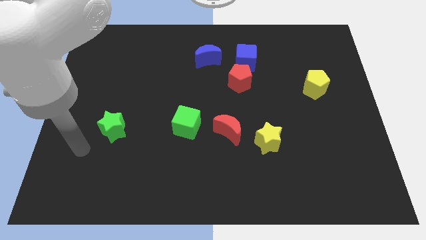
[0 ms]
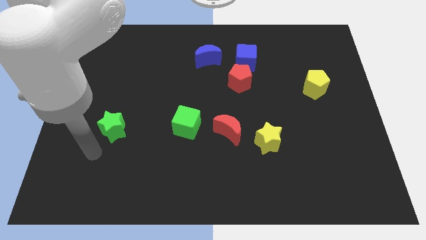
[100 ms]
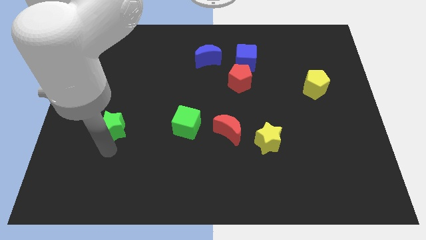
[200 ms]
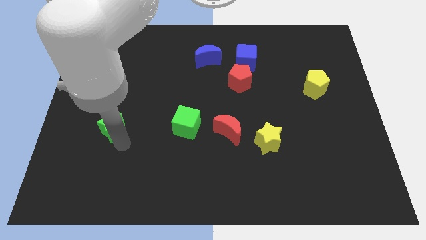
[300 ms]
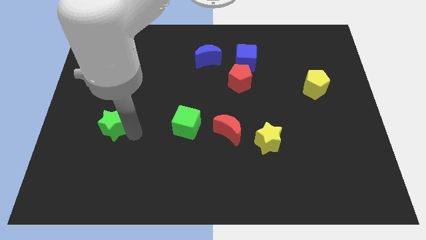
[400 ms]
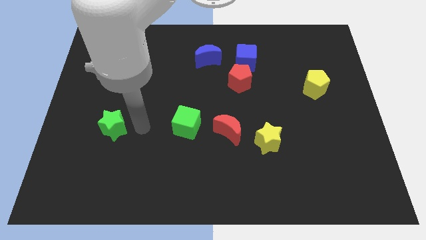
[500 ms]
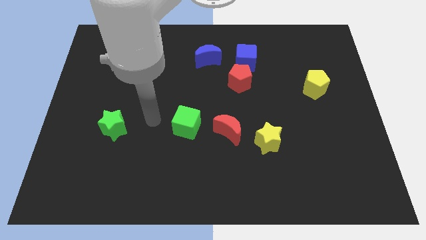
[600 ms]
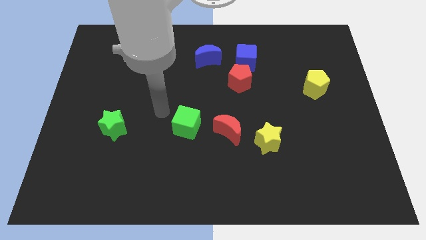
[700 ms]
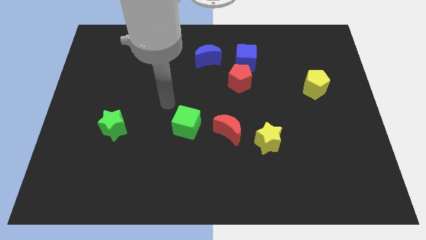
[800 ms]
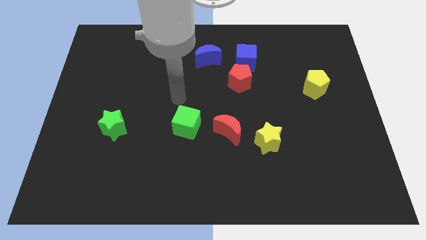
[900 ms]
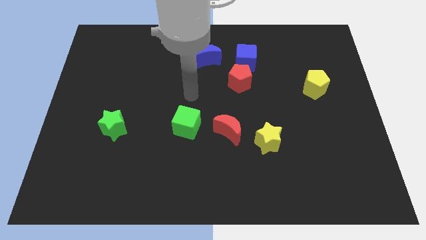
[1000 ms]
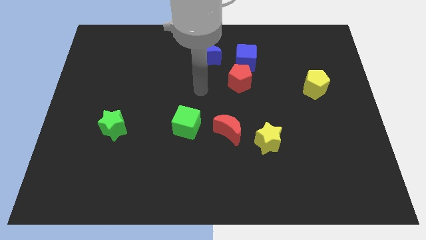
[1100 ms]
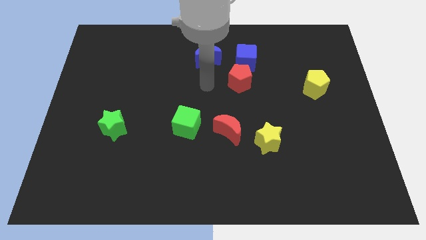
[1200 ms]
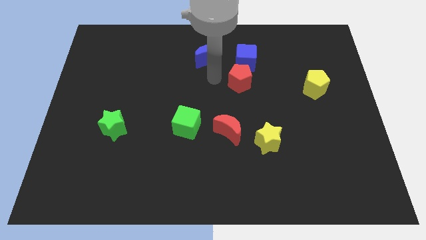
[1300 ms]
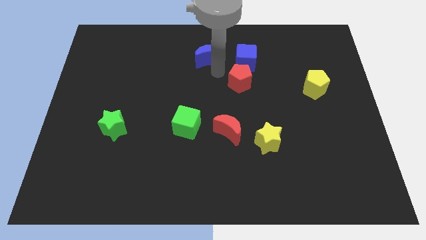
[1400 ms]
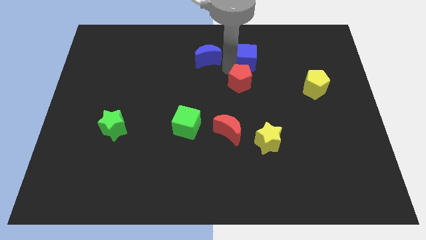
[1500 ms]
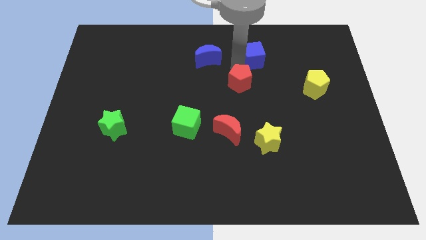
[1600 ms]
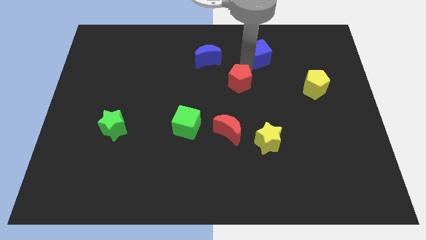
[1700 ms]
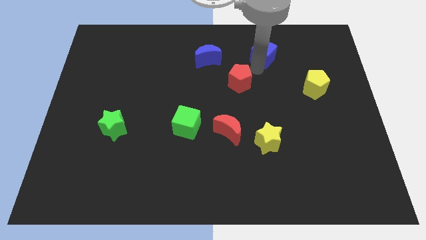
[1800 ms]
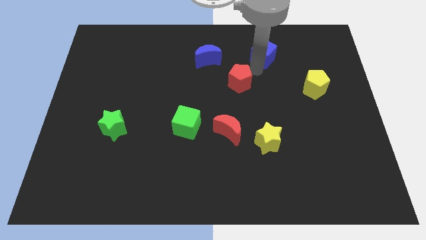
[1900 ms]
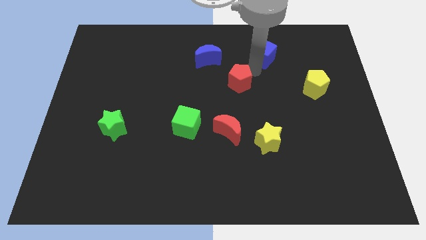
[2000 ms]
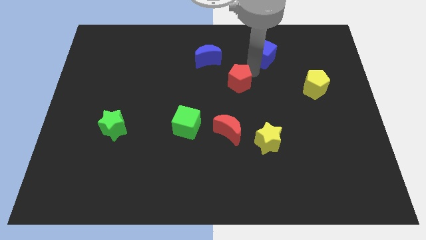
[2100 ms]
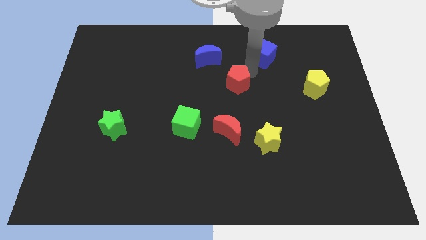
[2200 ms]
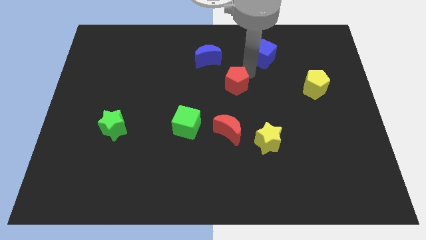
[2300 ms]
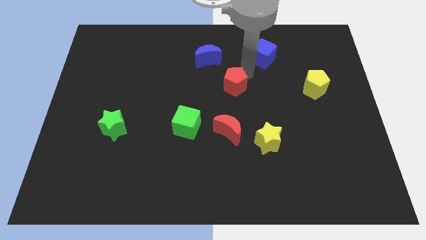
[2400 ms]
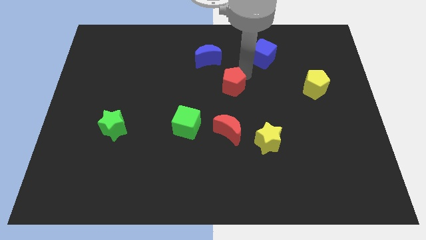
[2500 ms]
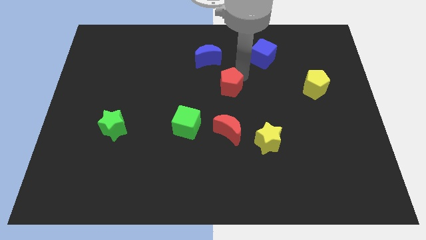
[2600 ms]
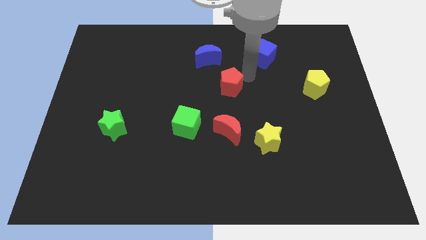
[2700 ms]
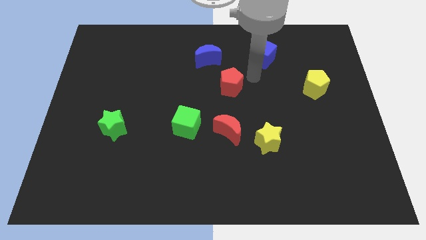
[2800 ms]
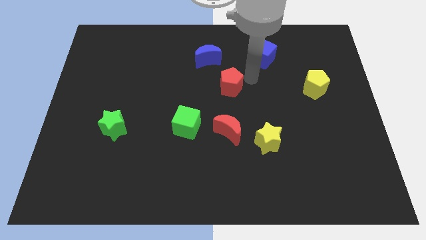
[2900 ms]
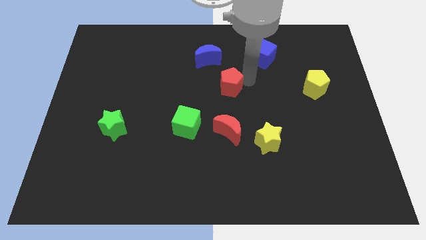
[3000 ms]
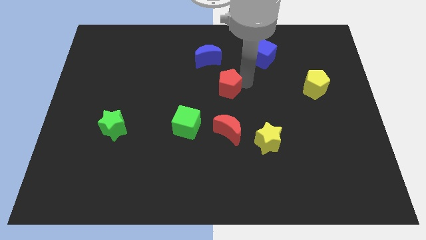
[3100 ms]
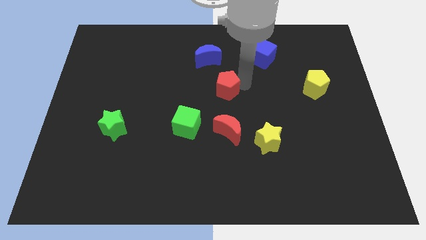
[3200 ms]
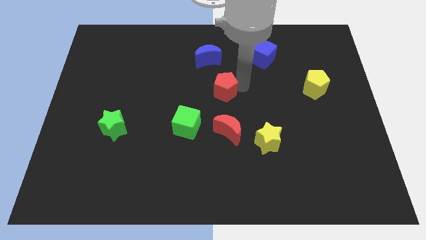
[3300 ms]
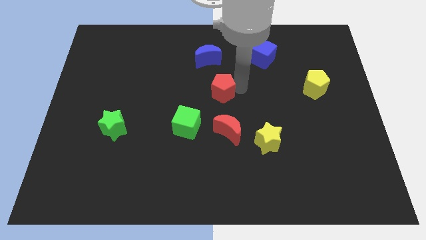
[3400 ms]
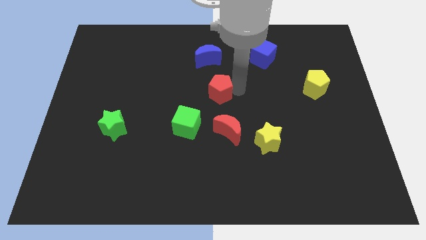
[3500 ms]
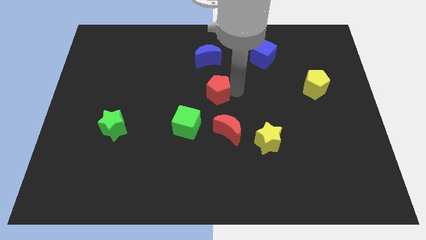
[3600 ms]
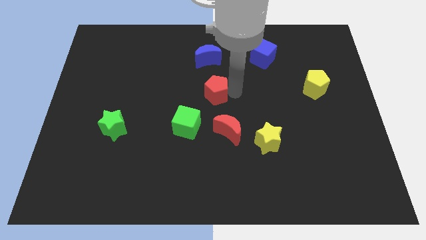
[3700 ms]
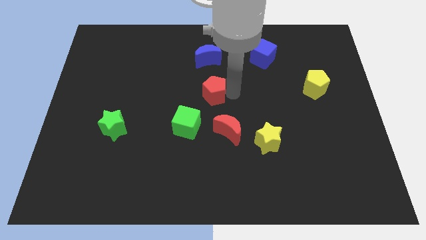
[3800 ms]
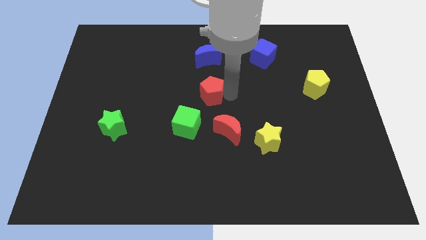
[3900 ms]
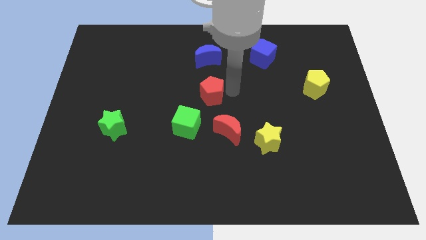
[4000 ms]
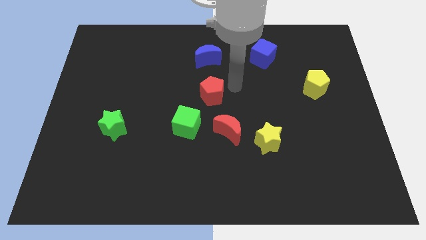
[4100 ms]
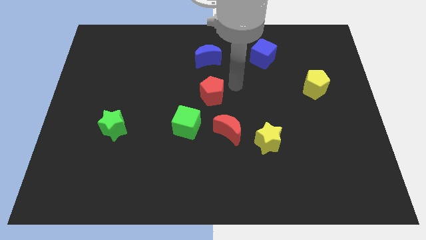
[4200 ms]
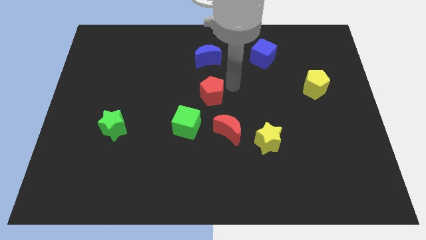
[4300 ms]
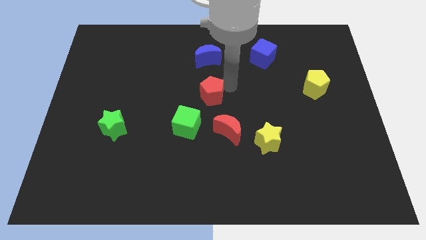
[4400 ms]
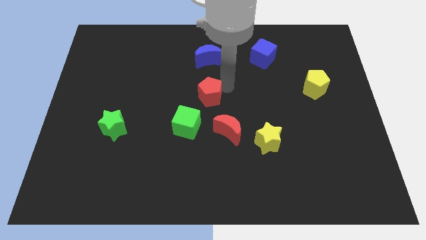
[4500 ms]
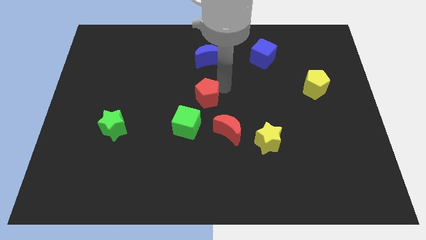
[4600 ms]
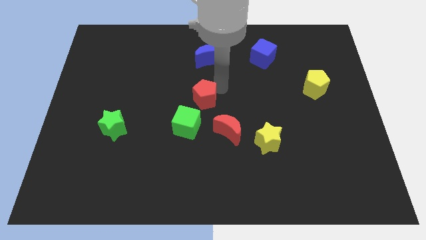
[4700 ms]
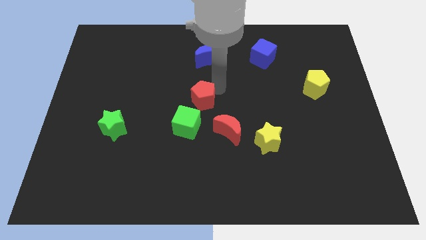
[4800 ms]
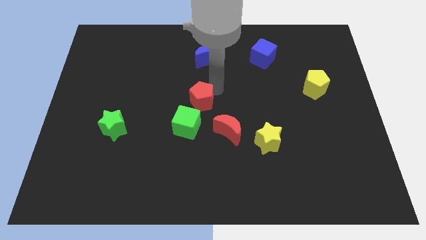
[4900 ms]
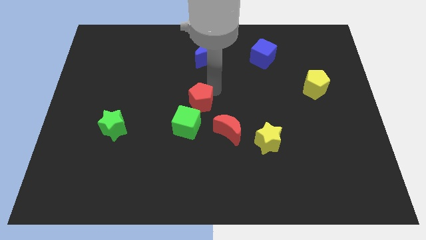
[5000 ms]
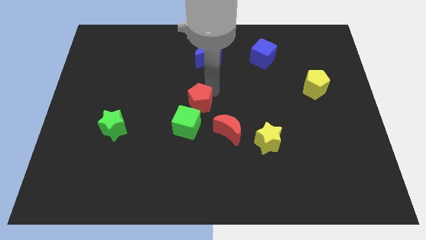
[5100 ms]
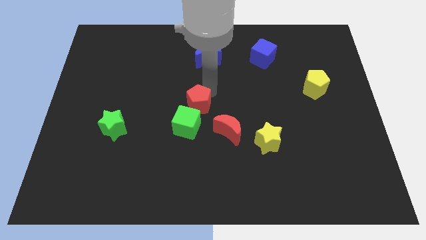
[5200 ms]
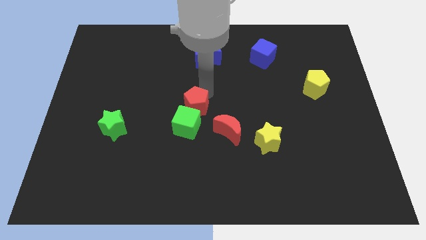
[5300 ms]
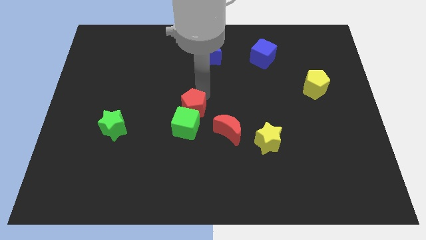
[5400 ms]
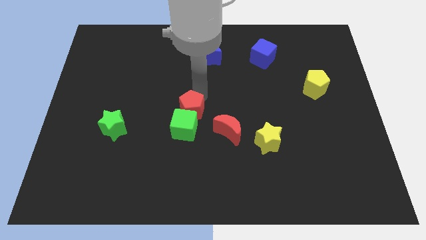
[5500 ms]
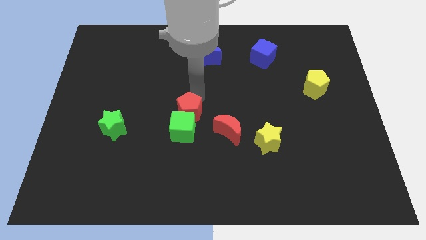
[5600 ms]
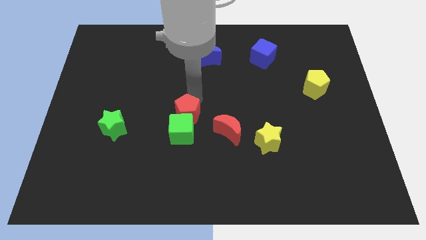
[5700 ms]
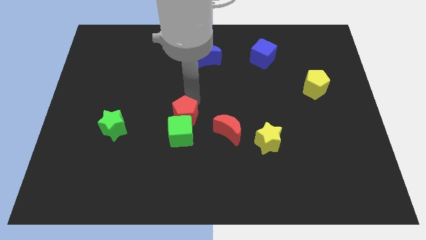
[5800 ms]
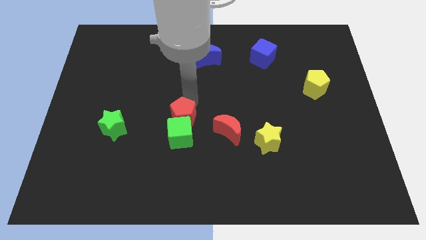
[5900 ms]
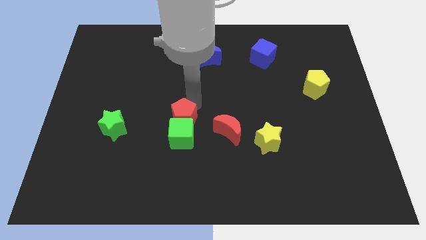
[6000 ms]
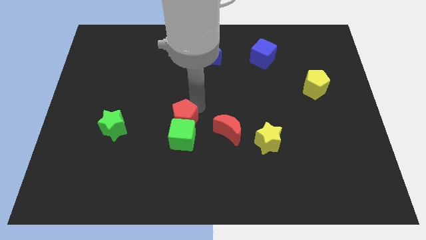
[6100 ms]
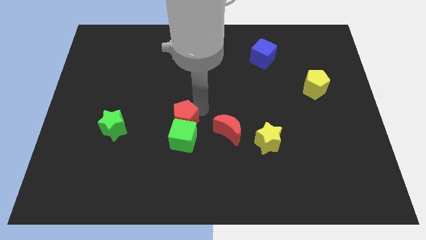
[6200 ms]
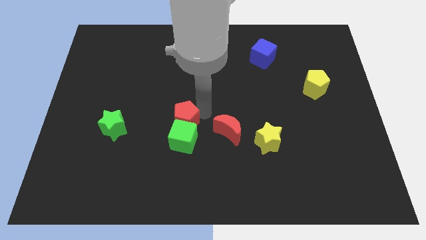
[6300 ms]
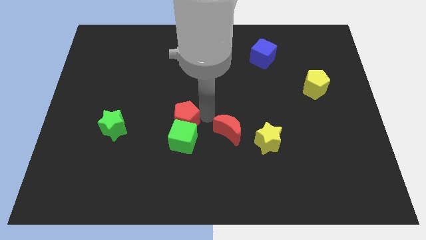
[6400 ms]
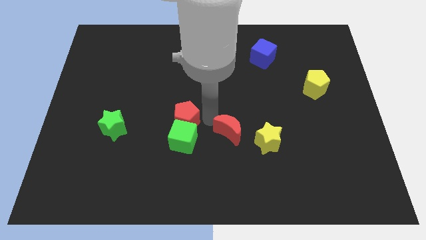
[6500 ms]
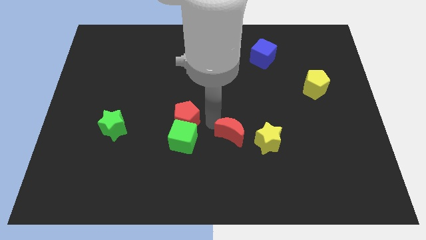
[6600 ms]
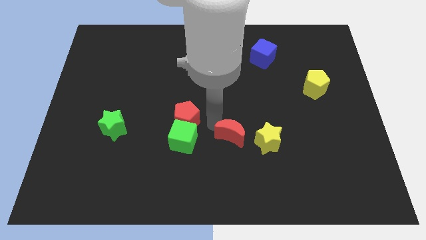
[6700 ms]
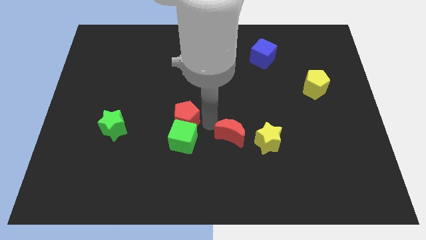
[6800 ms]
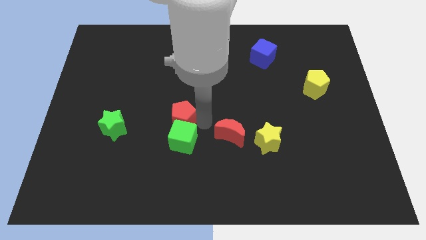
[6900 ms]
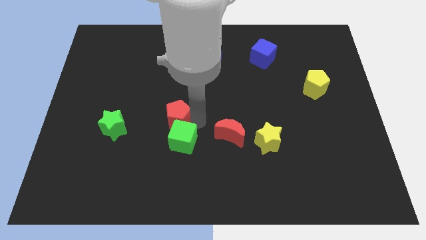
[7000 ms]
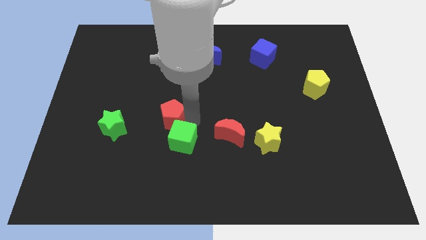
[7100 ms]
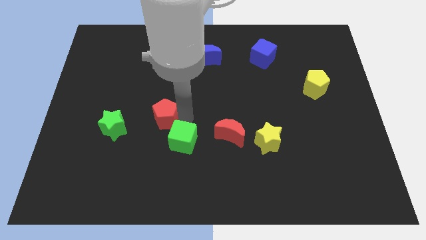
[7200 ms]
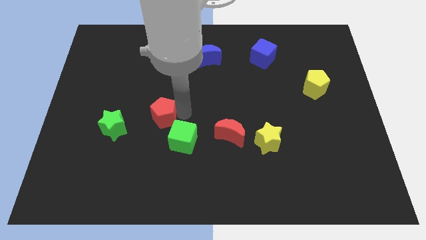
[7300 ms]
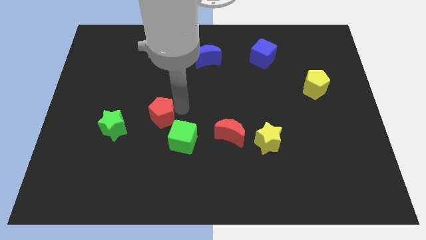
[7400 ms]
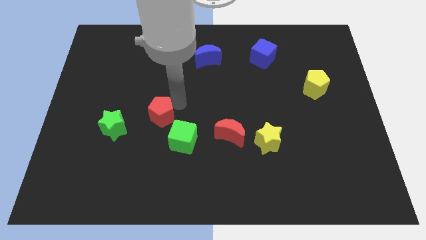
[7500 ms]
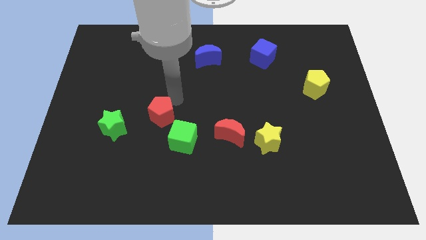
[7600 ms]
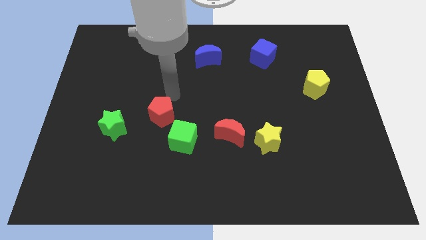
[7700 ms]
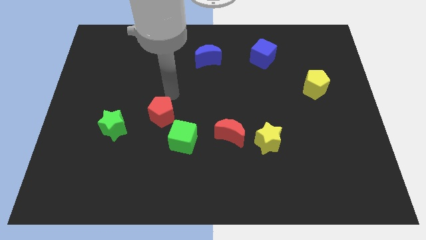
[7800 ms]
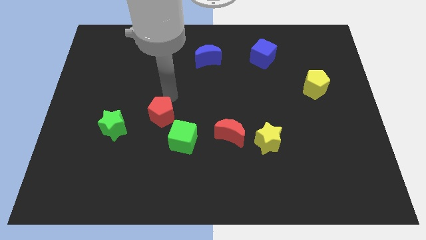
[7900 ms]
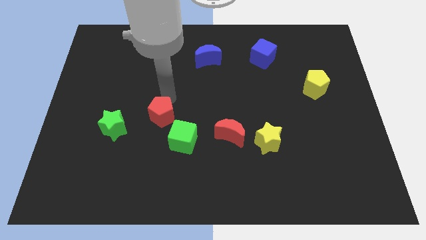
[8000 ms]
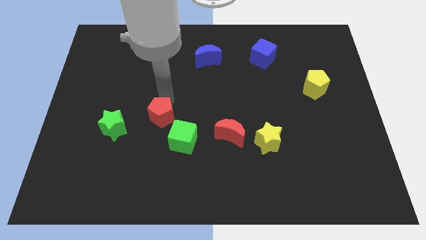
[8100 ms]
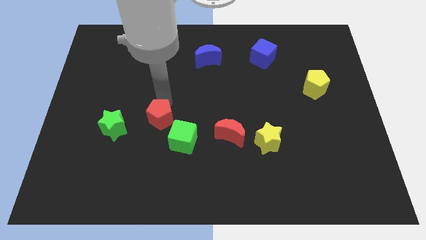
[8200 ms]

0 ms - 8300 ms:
push the red pentagon down and to the left diagonally
